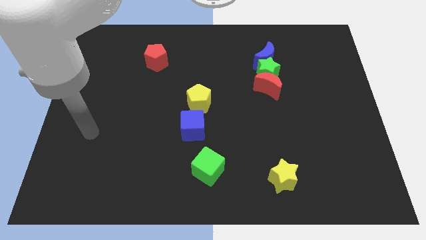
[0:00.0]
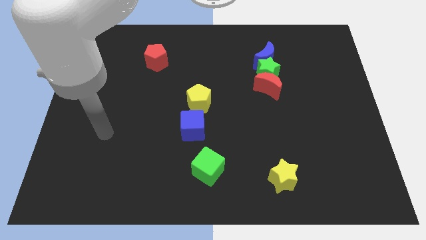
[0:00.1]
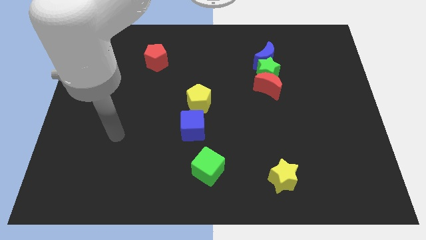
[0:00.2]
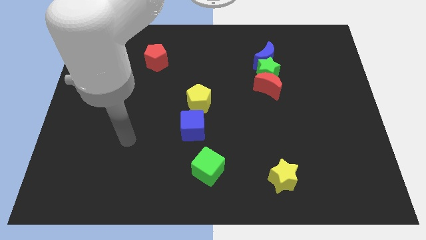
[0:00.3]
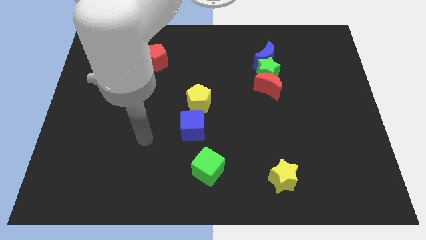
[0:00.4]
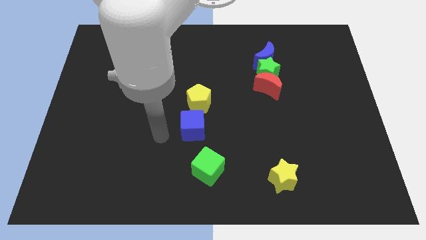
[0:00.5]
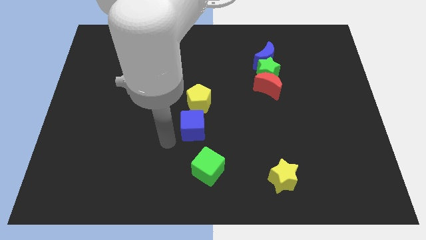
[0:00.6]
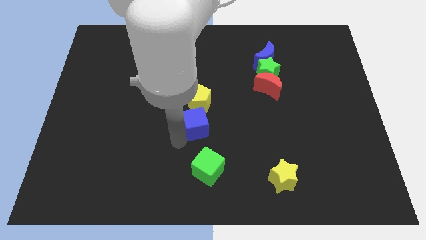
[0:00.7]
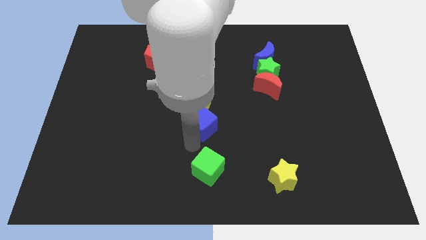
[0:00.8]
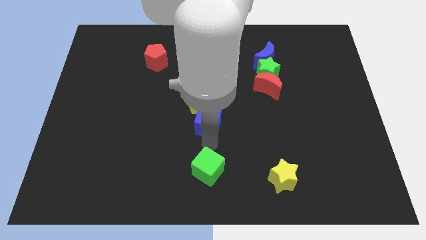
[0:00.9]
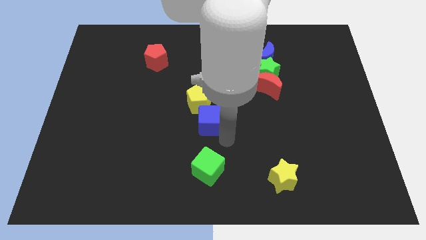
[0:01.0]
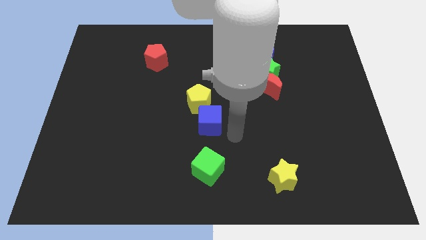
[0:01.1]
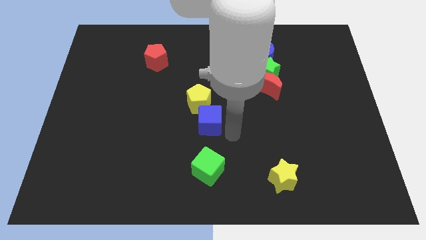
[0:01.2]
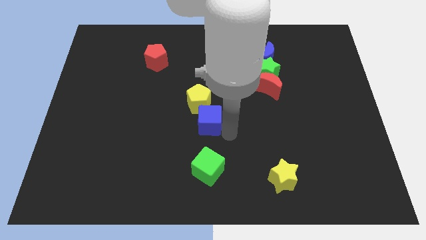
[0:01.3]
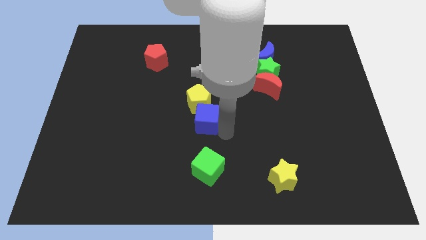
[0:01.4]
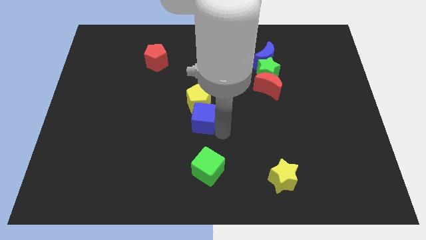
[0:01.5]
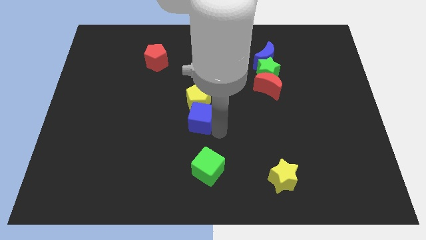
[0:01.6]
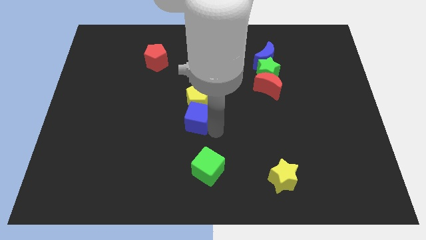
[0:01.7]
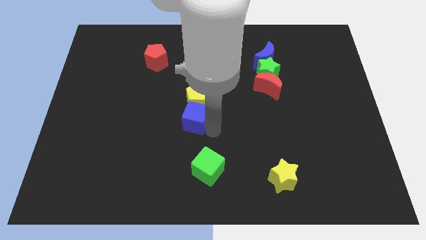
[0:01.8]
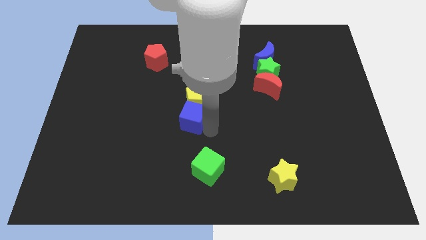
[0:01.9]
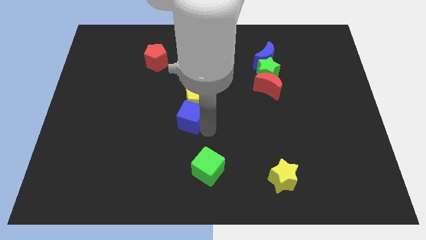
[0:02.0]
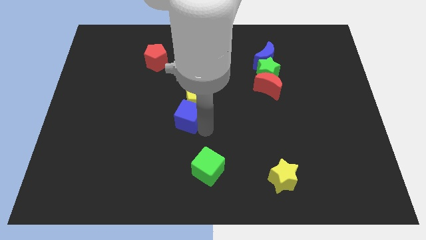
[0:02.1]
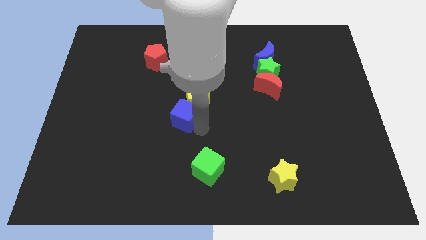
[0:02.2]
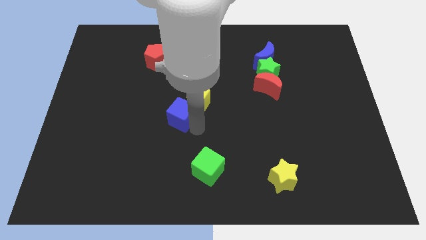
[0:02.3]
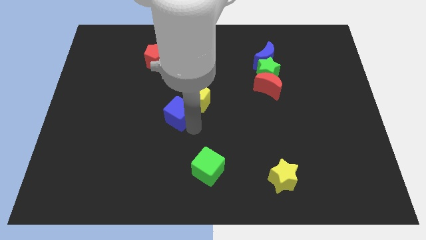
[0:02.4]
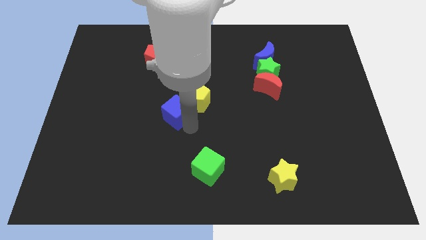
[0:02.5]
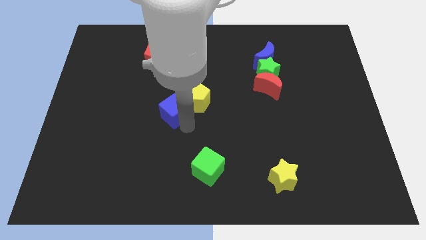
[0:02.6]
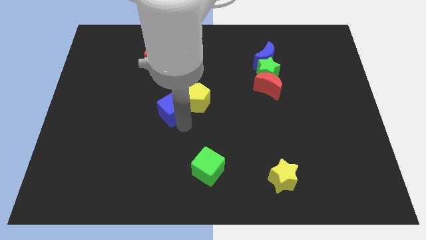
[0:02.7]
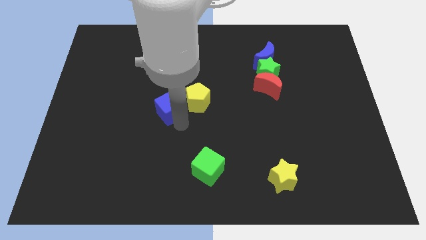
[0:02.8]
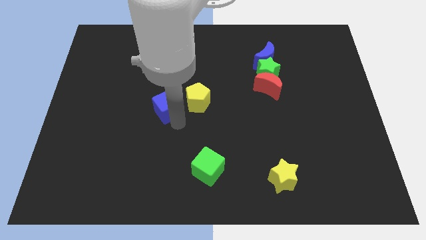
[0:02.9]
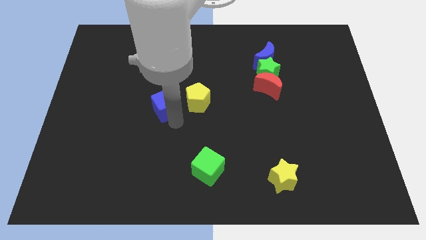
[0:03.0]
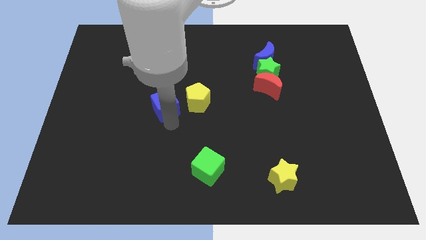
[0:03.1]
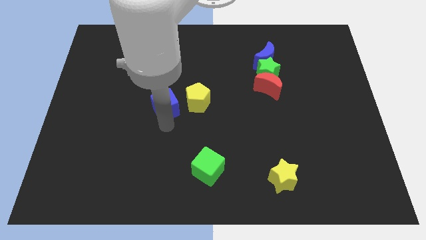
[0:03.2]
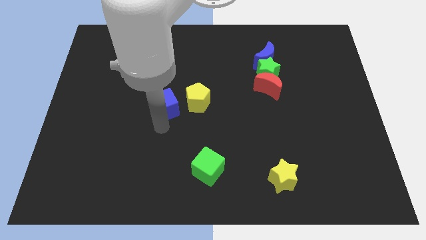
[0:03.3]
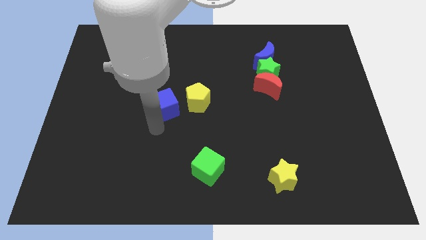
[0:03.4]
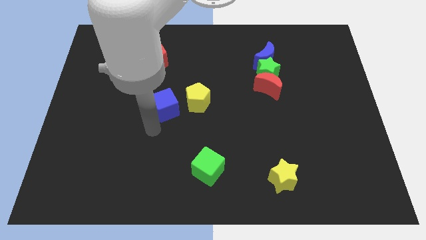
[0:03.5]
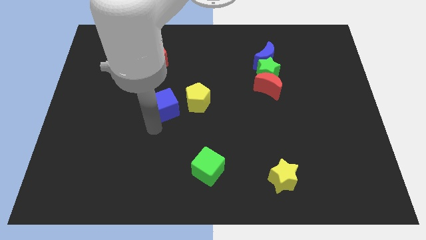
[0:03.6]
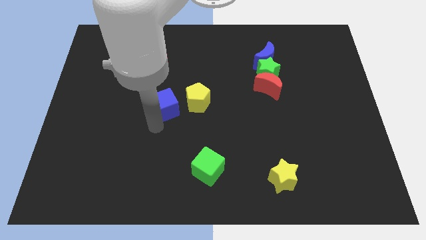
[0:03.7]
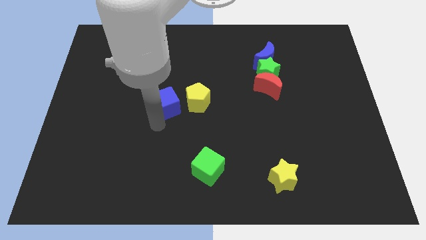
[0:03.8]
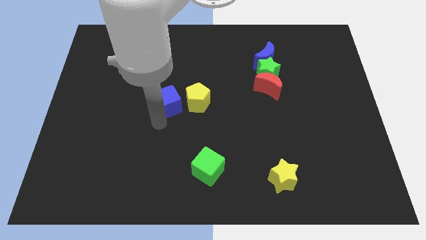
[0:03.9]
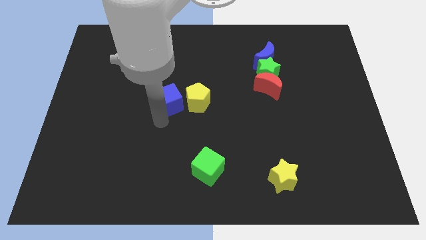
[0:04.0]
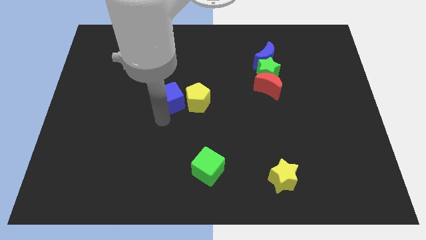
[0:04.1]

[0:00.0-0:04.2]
slightly push the blue cube upwards

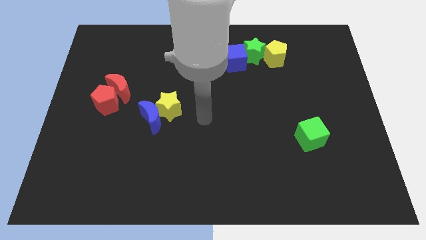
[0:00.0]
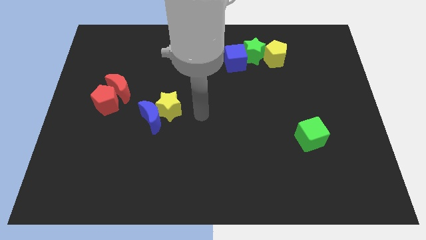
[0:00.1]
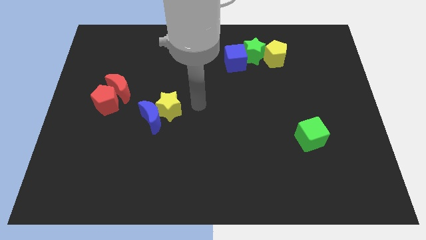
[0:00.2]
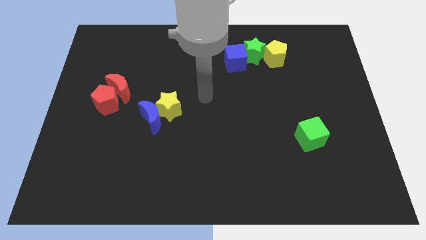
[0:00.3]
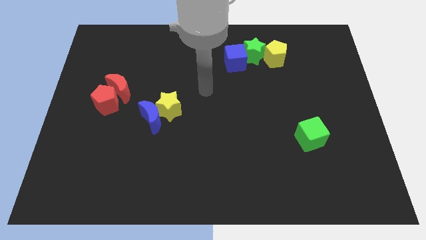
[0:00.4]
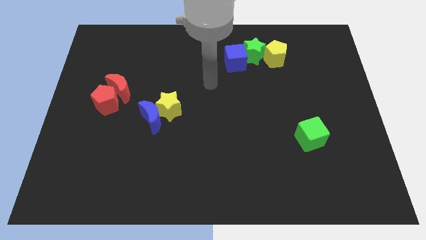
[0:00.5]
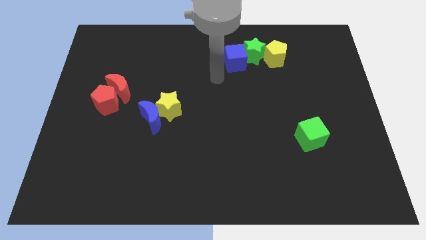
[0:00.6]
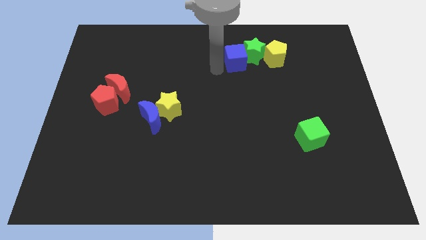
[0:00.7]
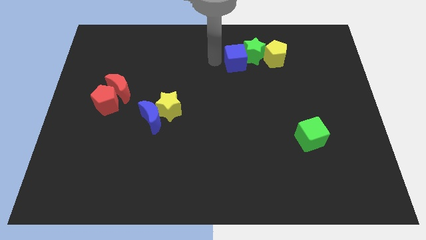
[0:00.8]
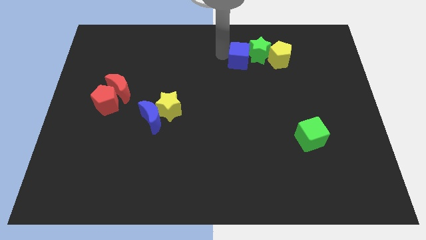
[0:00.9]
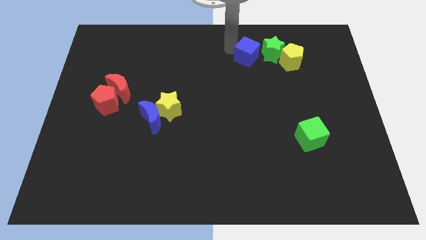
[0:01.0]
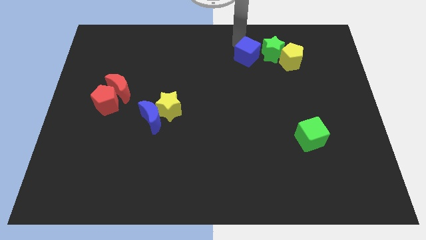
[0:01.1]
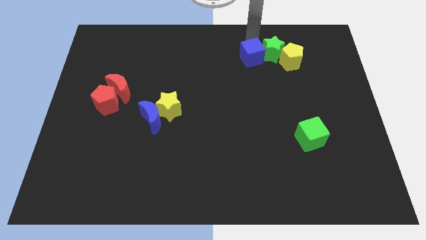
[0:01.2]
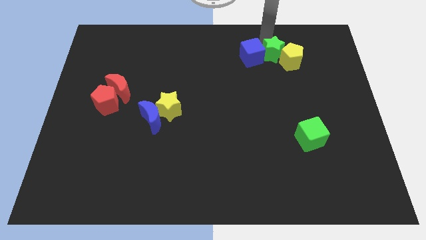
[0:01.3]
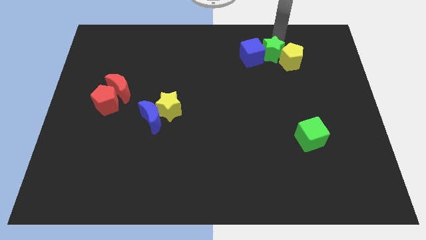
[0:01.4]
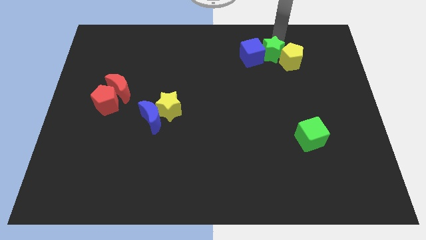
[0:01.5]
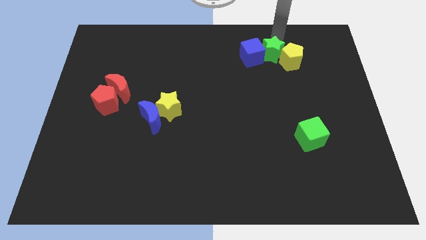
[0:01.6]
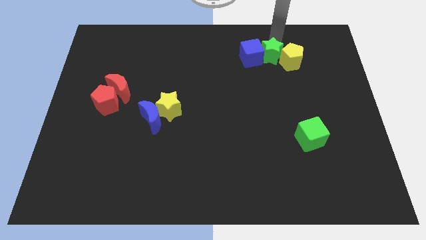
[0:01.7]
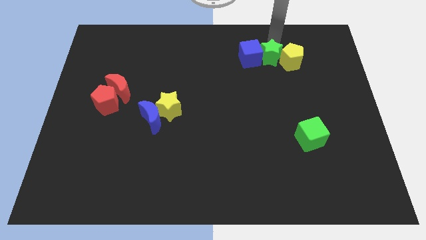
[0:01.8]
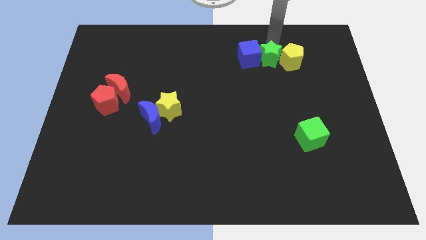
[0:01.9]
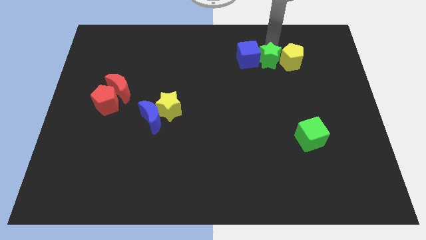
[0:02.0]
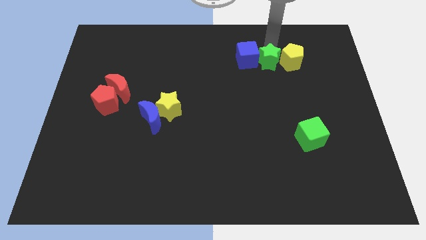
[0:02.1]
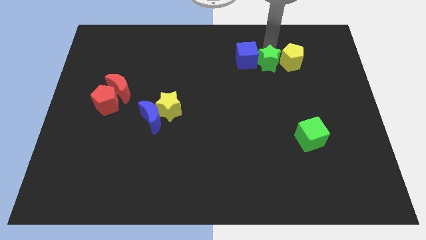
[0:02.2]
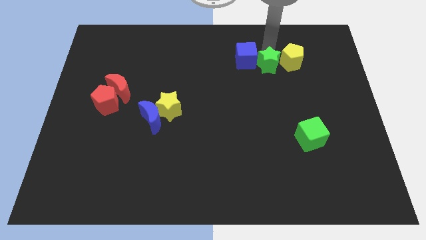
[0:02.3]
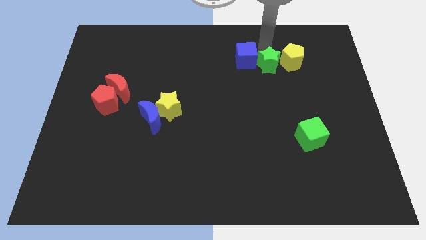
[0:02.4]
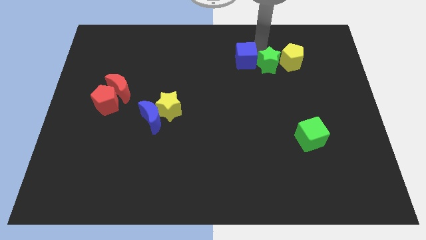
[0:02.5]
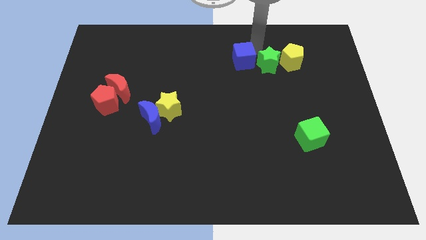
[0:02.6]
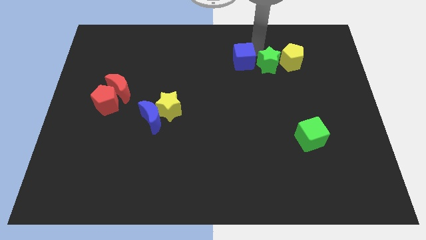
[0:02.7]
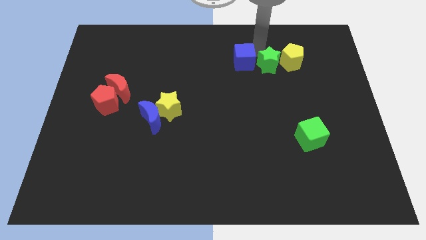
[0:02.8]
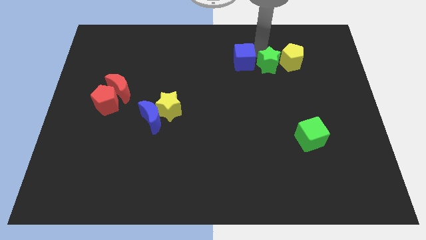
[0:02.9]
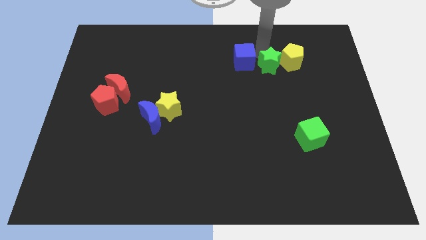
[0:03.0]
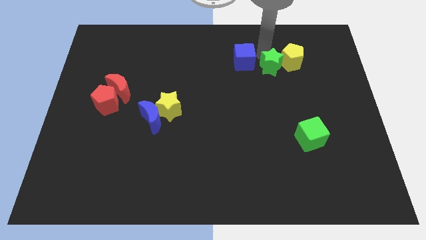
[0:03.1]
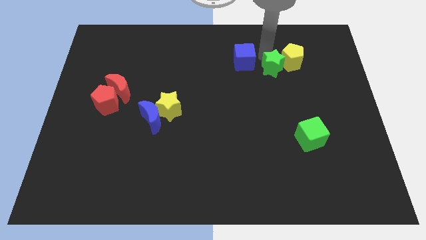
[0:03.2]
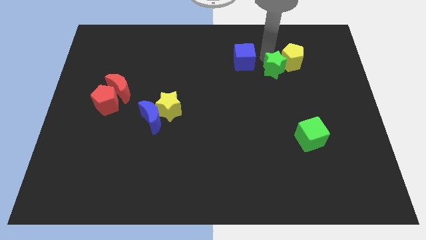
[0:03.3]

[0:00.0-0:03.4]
push the green star downwards and to the right somewhat

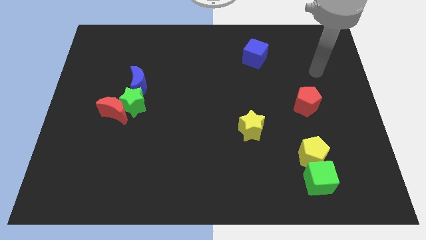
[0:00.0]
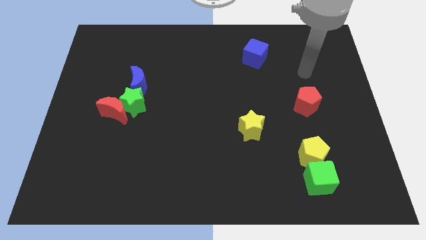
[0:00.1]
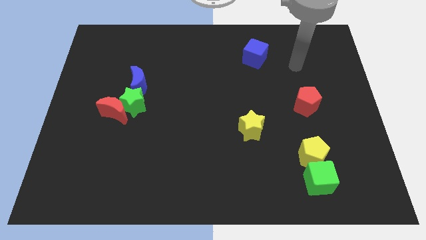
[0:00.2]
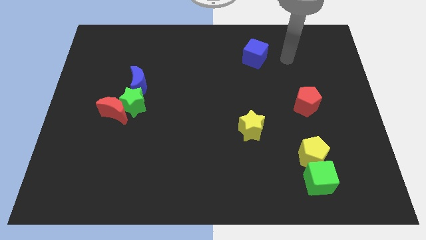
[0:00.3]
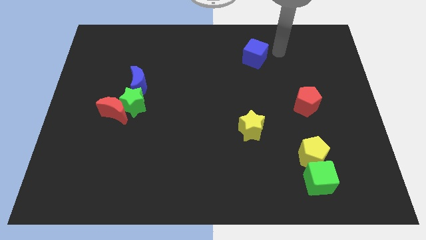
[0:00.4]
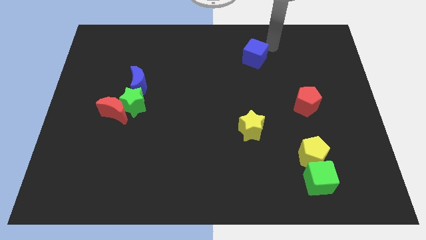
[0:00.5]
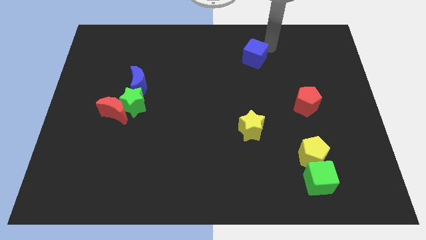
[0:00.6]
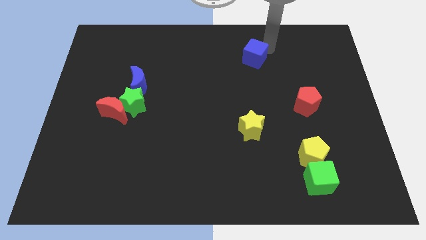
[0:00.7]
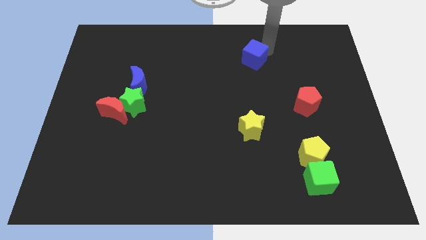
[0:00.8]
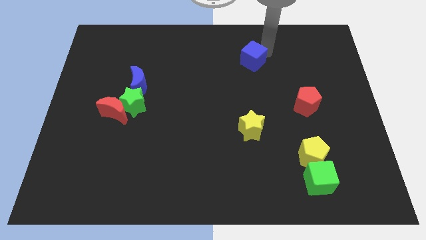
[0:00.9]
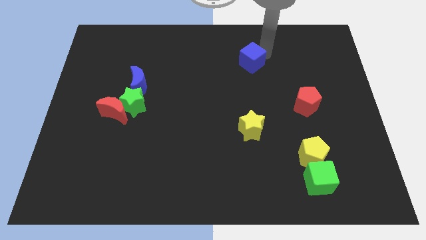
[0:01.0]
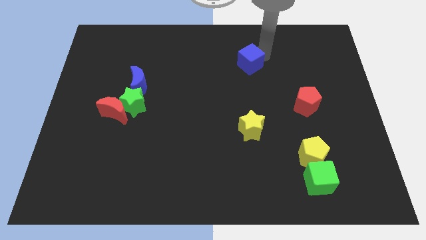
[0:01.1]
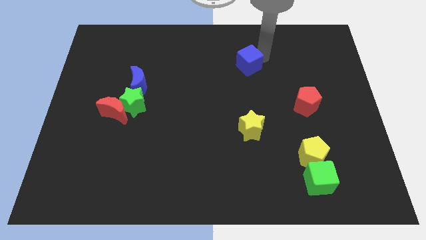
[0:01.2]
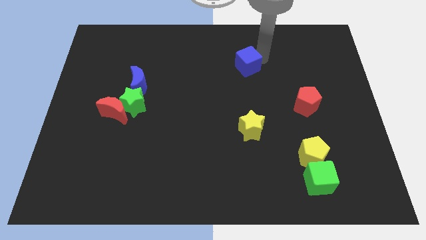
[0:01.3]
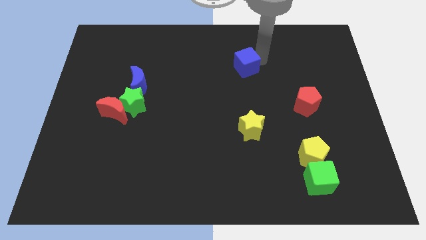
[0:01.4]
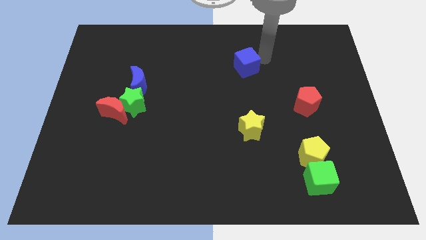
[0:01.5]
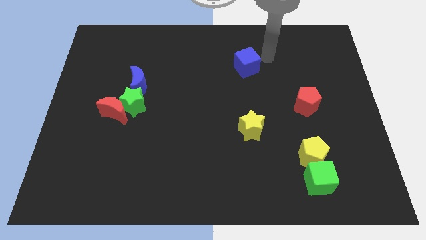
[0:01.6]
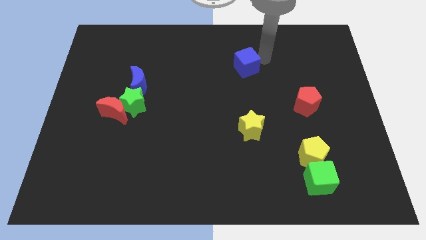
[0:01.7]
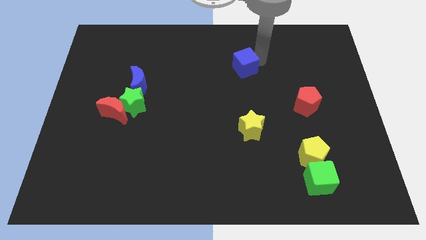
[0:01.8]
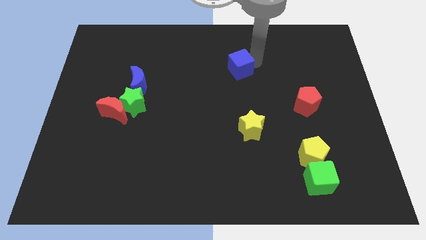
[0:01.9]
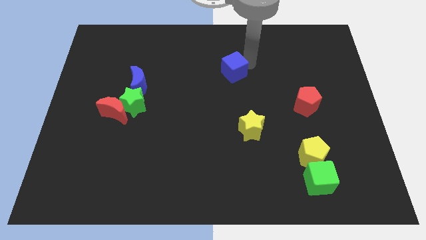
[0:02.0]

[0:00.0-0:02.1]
move the blue cube a bit downwards and then to the left
